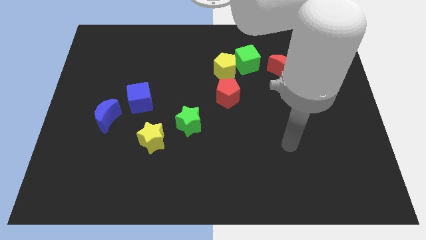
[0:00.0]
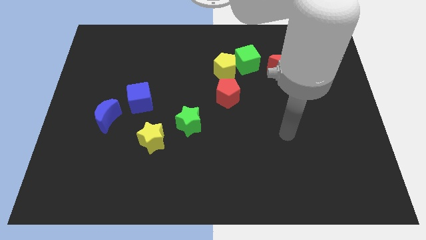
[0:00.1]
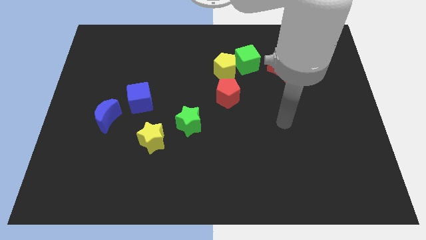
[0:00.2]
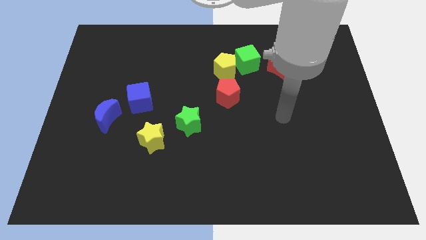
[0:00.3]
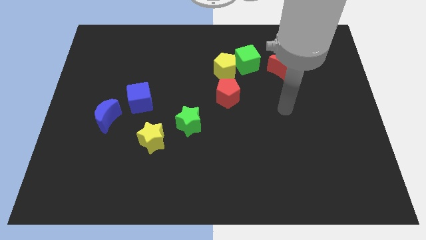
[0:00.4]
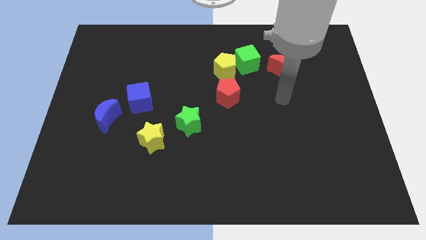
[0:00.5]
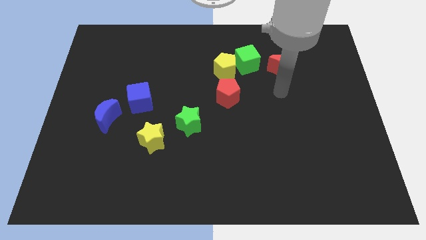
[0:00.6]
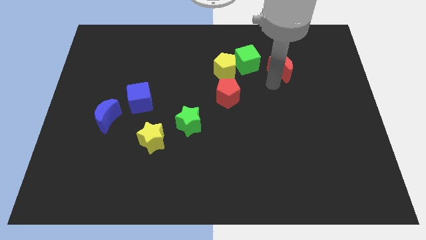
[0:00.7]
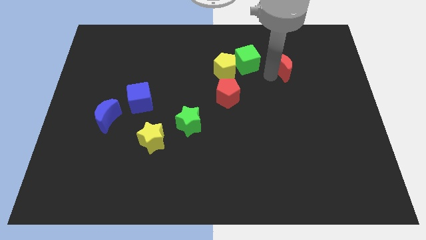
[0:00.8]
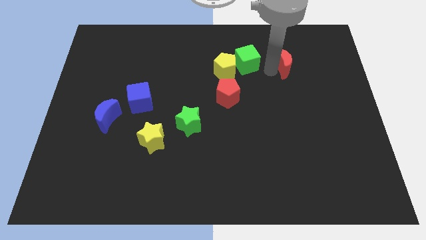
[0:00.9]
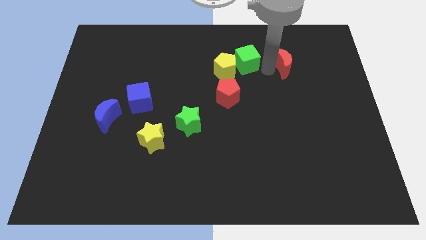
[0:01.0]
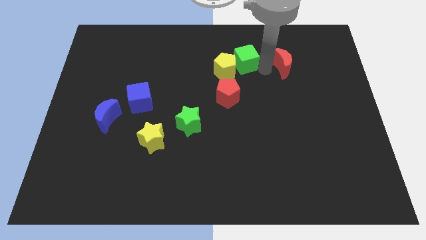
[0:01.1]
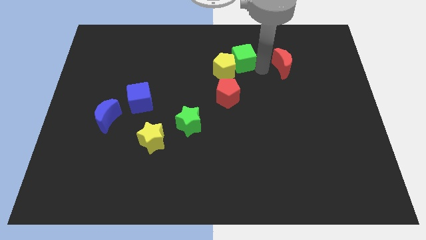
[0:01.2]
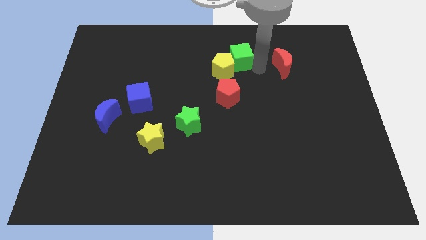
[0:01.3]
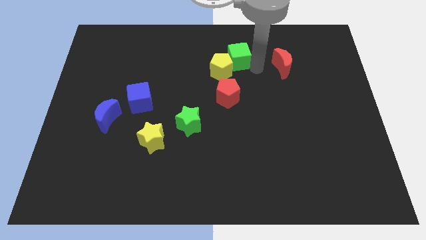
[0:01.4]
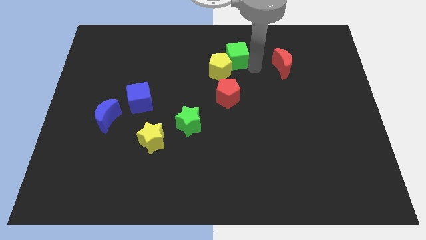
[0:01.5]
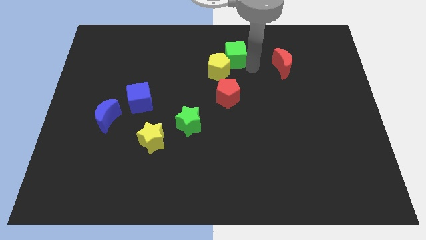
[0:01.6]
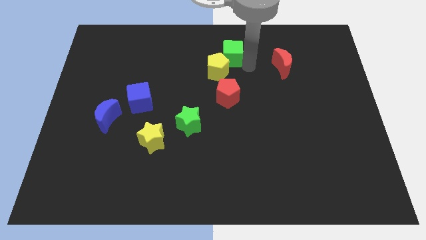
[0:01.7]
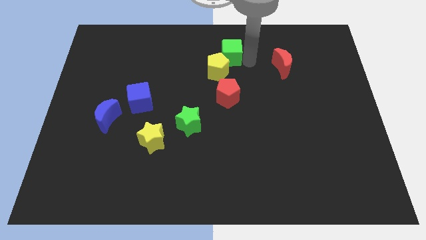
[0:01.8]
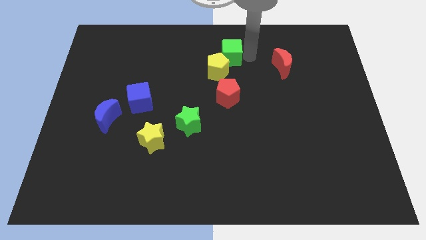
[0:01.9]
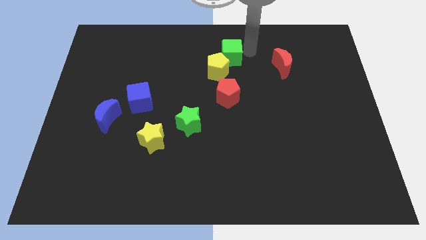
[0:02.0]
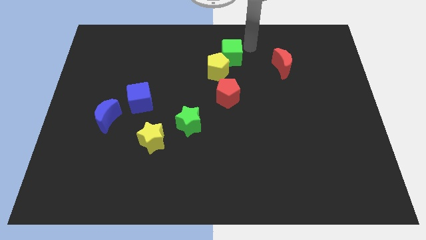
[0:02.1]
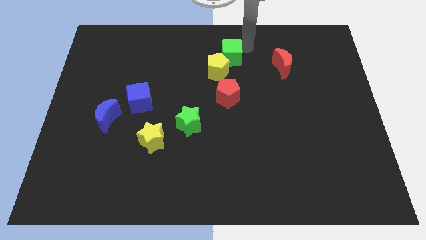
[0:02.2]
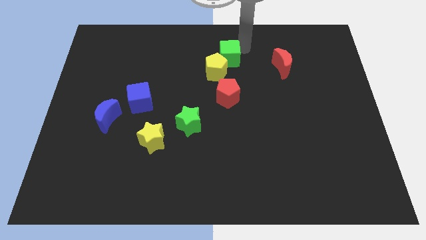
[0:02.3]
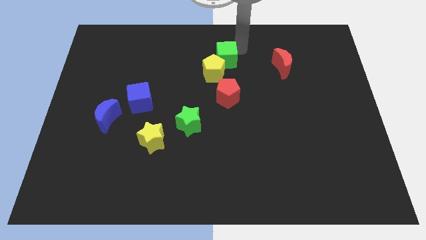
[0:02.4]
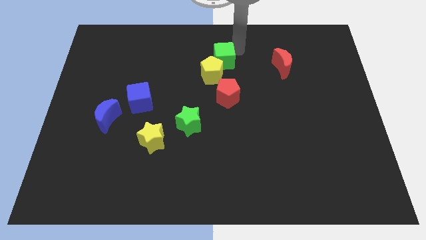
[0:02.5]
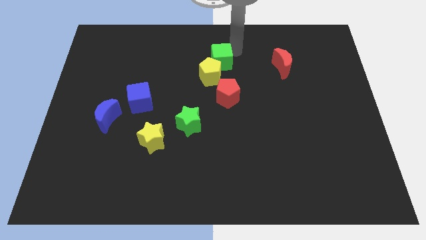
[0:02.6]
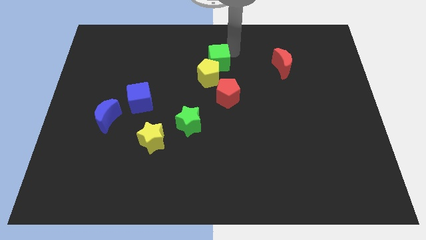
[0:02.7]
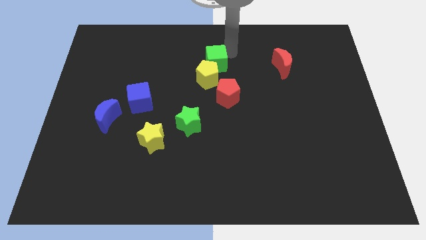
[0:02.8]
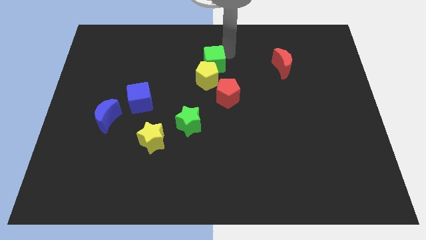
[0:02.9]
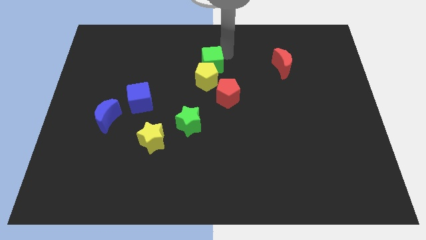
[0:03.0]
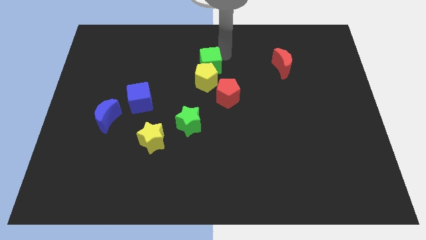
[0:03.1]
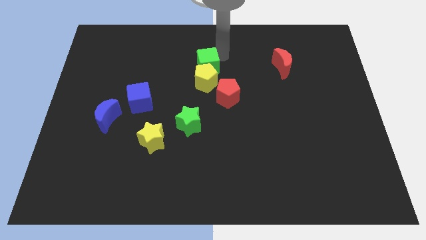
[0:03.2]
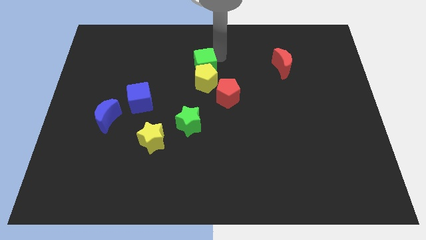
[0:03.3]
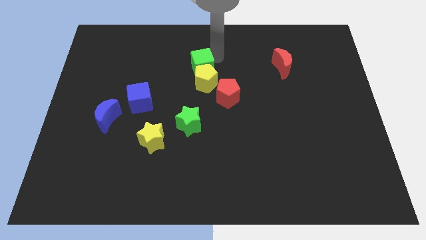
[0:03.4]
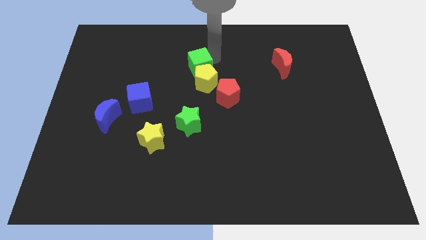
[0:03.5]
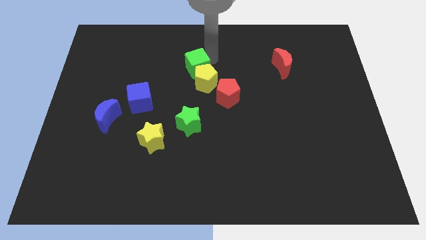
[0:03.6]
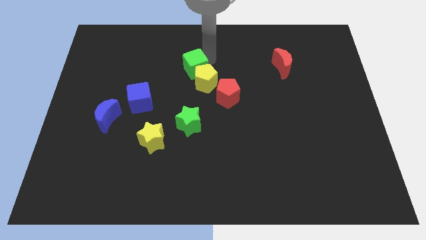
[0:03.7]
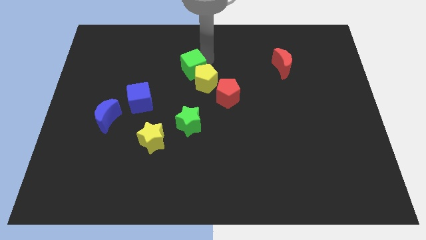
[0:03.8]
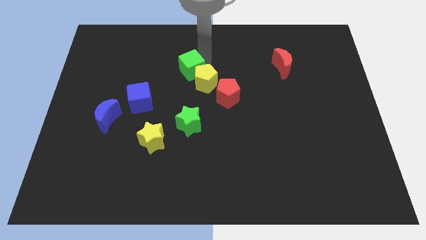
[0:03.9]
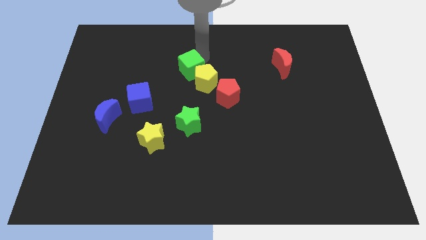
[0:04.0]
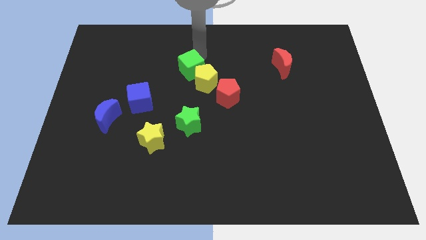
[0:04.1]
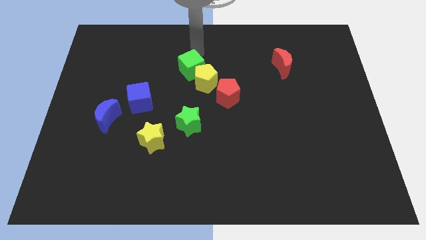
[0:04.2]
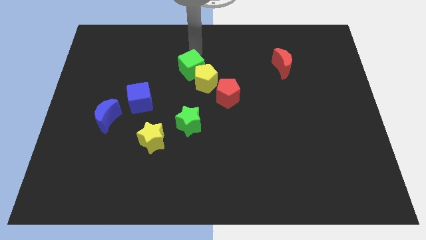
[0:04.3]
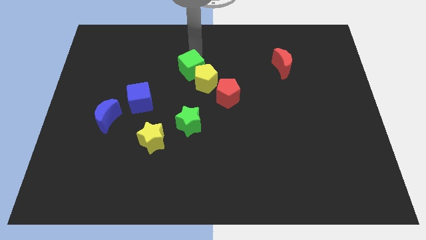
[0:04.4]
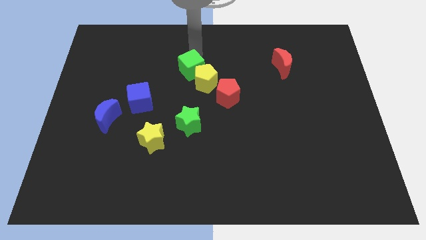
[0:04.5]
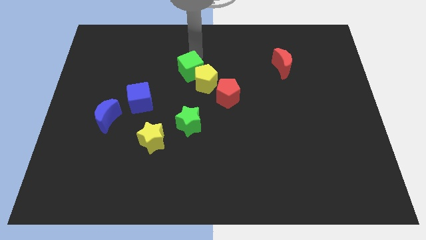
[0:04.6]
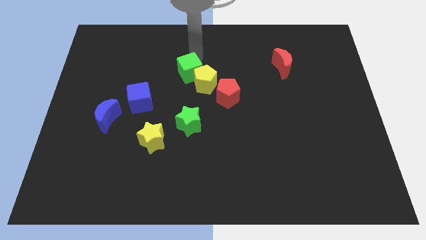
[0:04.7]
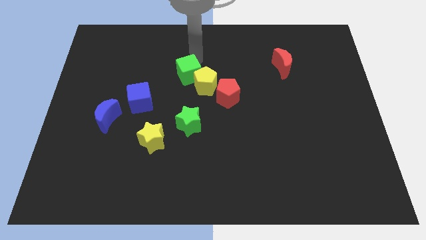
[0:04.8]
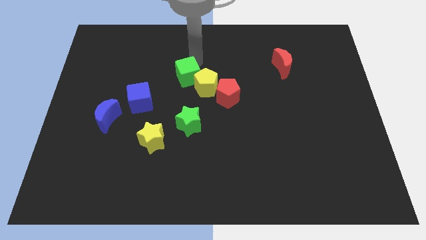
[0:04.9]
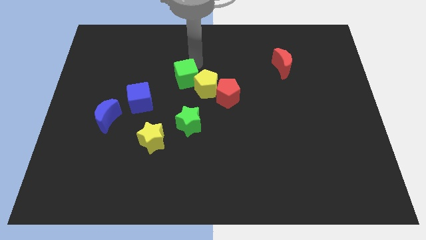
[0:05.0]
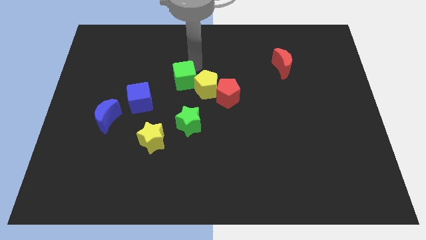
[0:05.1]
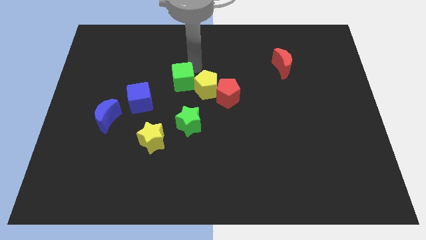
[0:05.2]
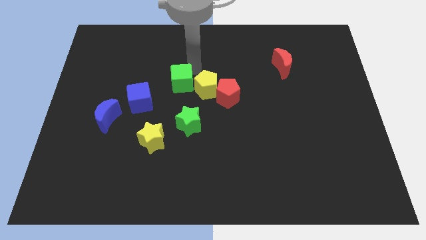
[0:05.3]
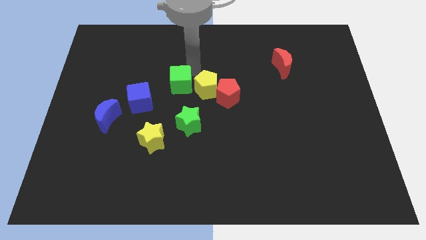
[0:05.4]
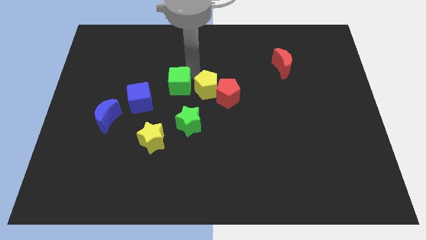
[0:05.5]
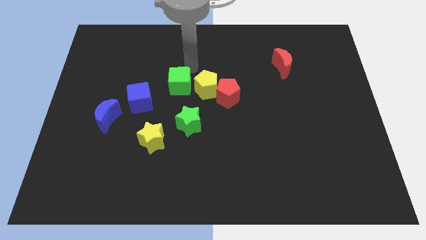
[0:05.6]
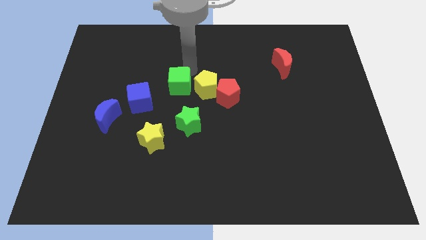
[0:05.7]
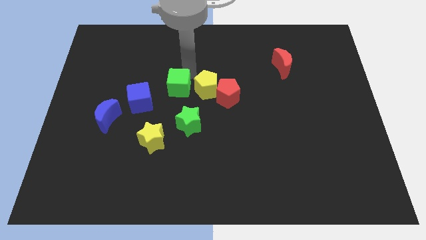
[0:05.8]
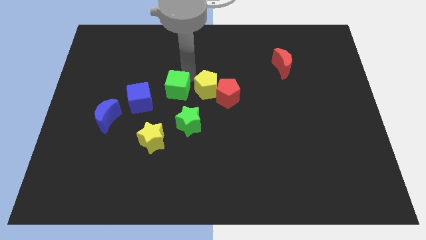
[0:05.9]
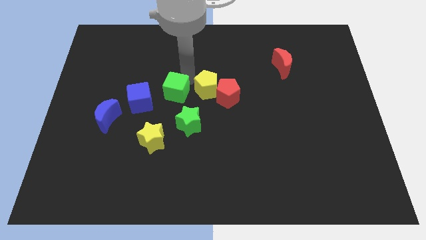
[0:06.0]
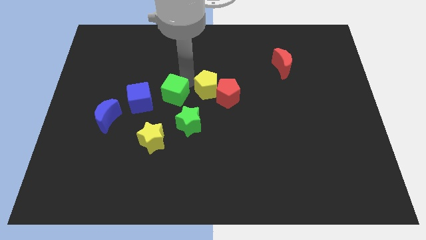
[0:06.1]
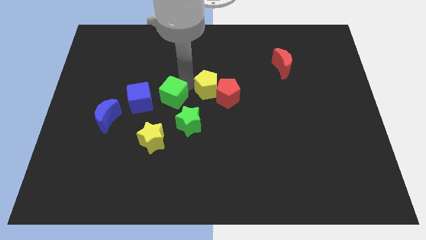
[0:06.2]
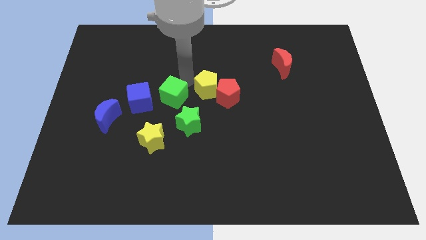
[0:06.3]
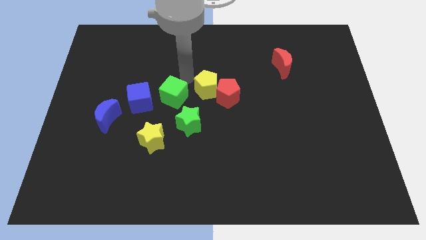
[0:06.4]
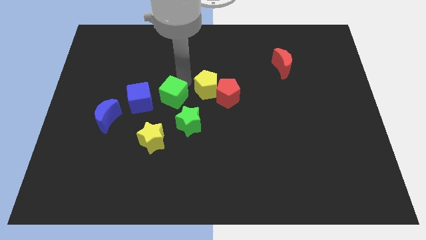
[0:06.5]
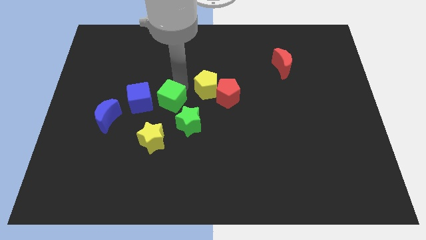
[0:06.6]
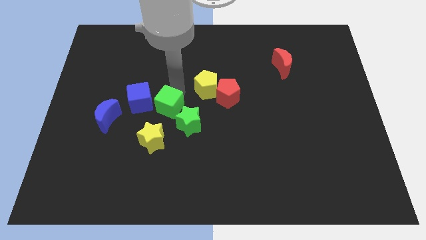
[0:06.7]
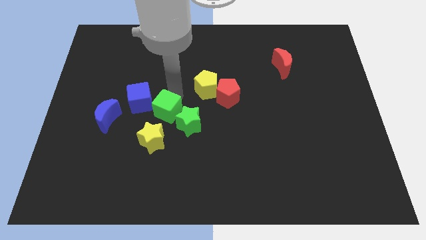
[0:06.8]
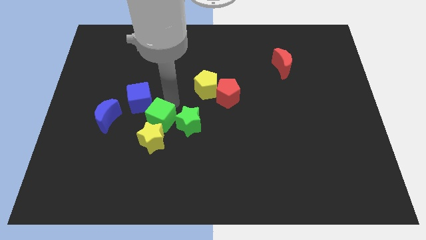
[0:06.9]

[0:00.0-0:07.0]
move the green cube to the yellow star
